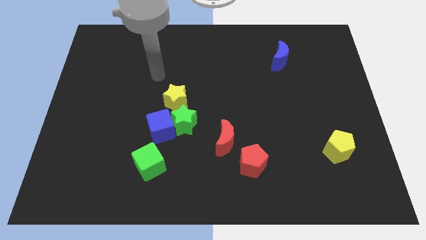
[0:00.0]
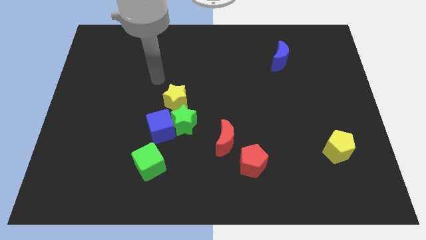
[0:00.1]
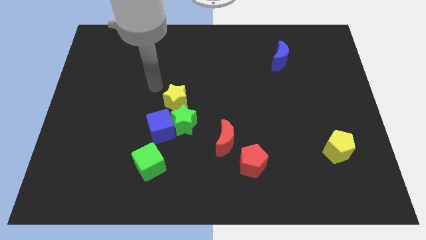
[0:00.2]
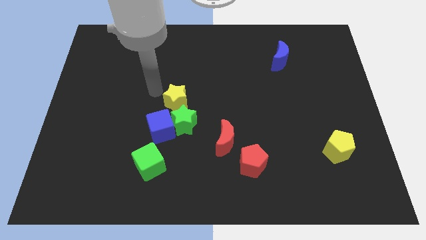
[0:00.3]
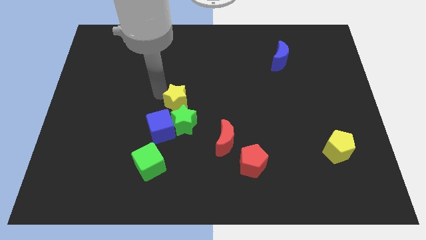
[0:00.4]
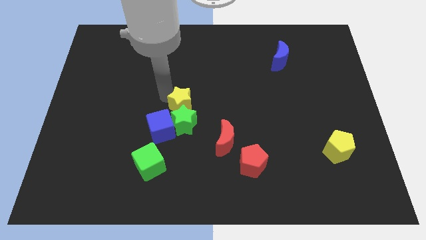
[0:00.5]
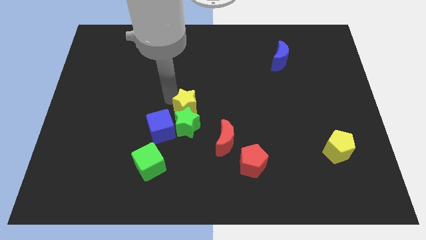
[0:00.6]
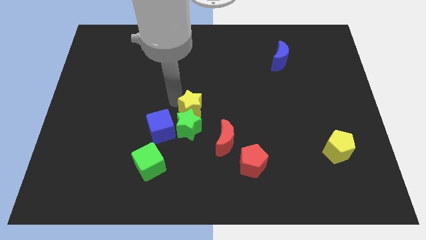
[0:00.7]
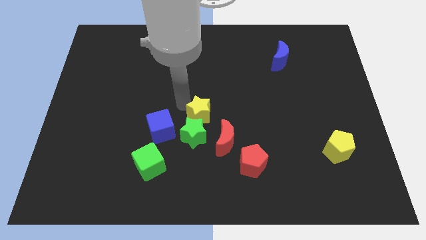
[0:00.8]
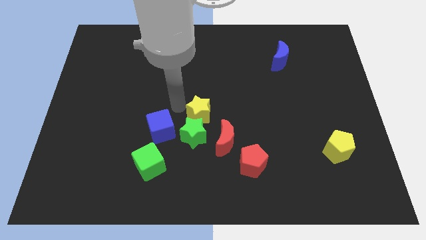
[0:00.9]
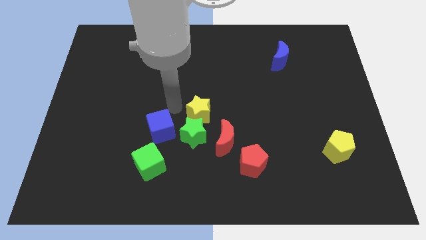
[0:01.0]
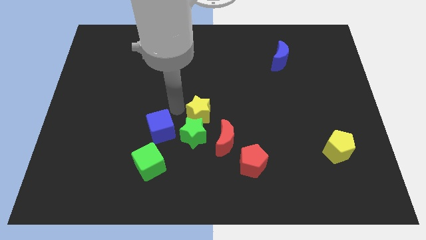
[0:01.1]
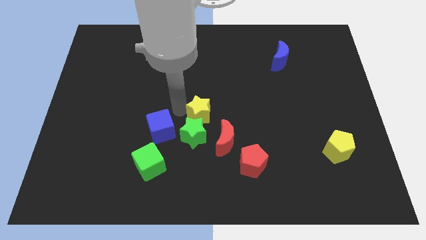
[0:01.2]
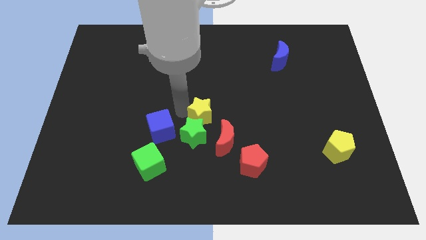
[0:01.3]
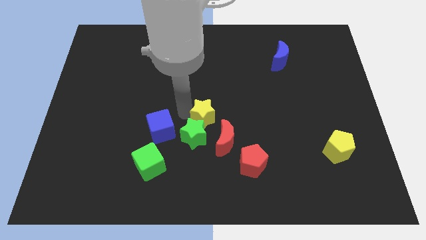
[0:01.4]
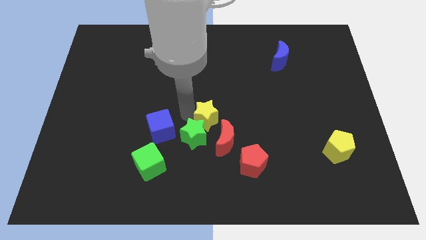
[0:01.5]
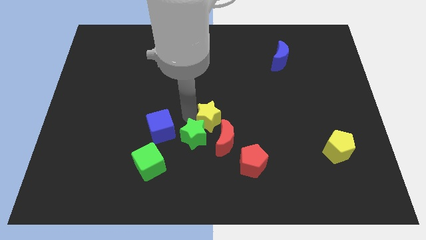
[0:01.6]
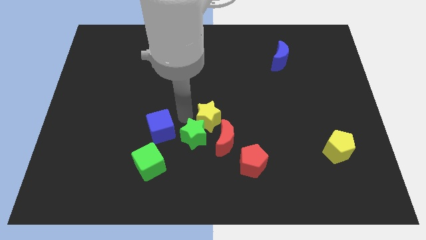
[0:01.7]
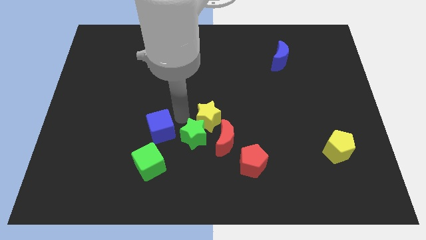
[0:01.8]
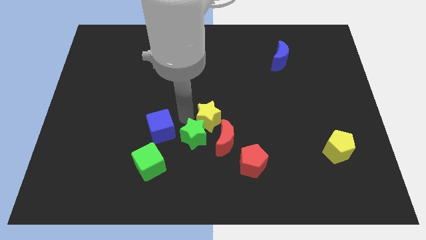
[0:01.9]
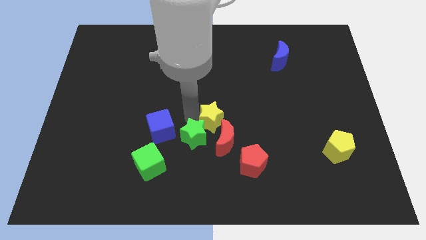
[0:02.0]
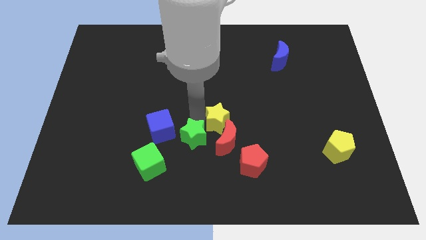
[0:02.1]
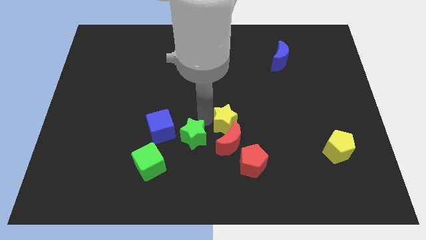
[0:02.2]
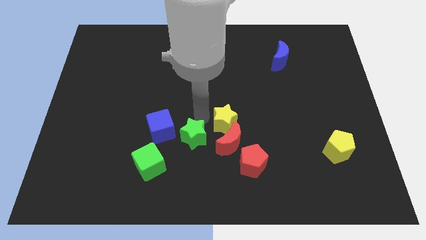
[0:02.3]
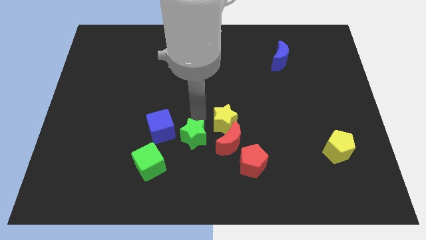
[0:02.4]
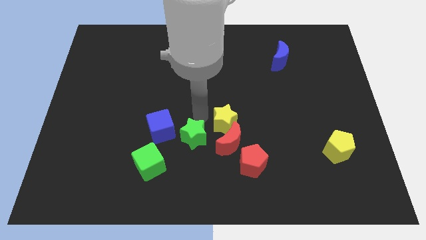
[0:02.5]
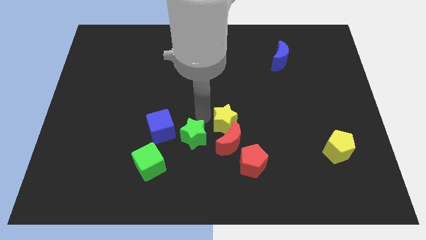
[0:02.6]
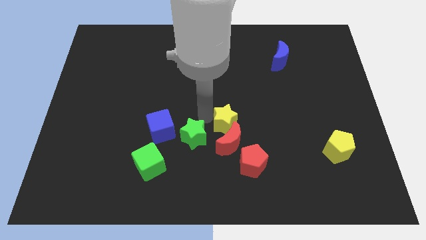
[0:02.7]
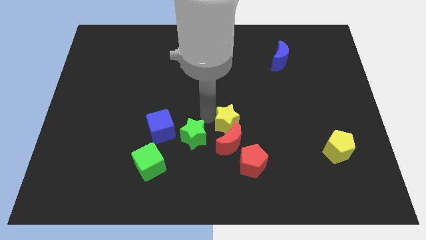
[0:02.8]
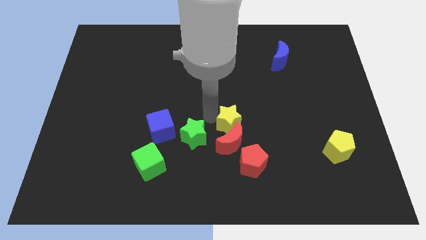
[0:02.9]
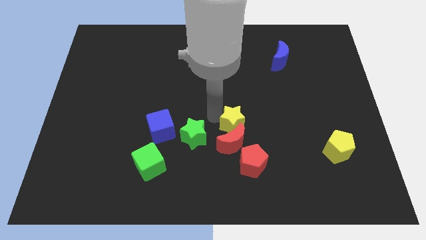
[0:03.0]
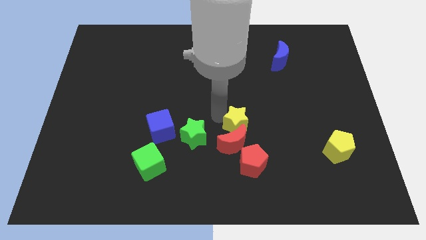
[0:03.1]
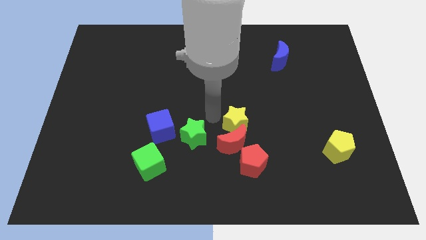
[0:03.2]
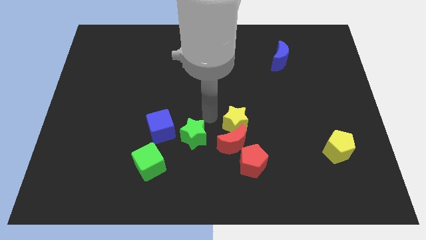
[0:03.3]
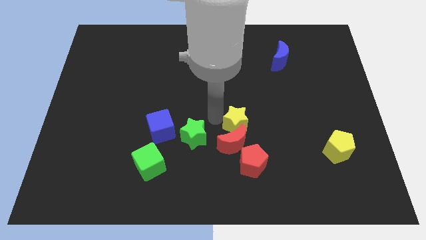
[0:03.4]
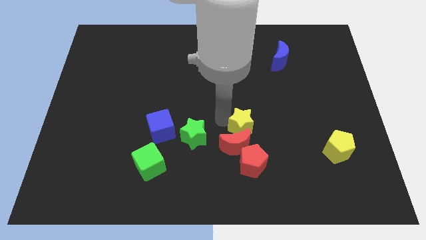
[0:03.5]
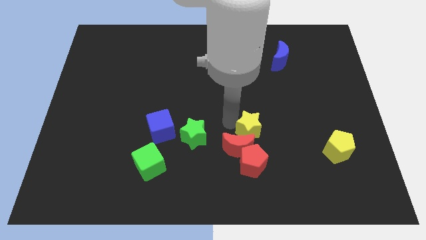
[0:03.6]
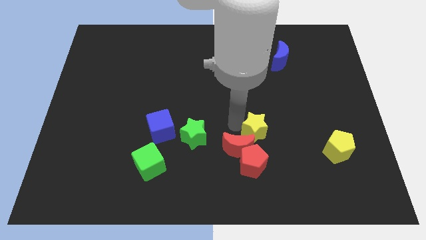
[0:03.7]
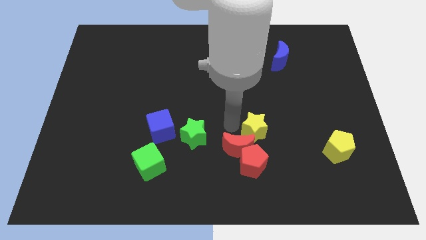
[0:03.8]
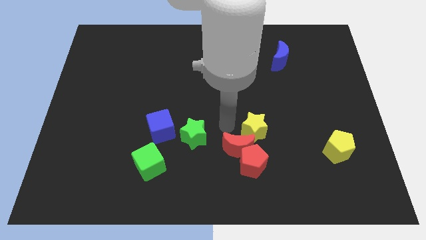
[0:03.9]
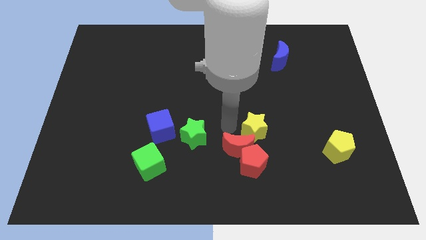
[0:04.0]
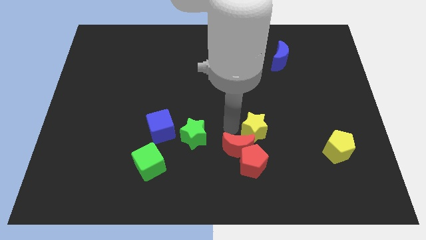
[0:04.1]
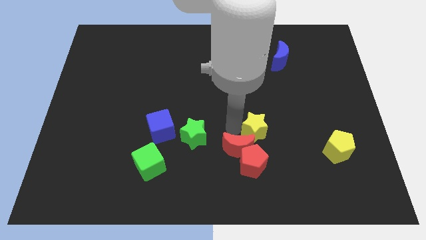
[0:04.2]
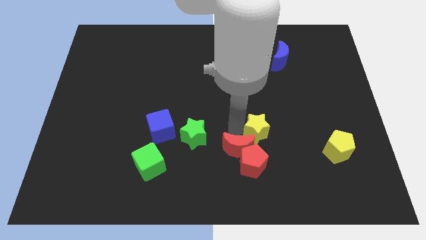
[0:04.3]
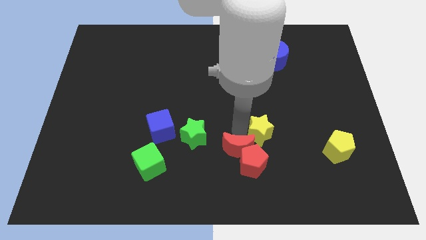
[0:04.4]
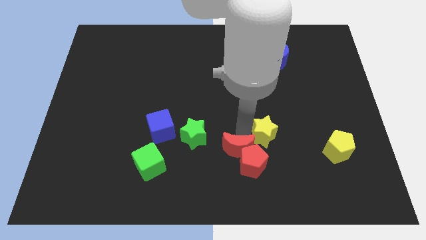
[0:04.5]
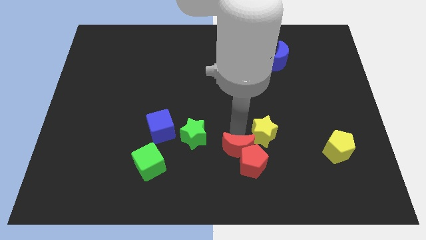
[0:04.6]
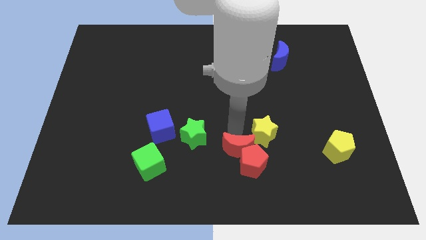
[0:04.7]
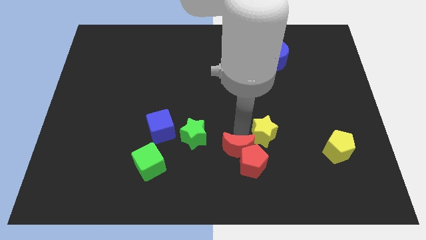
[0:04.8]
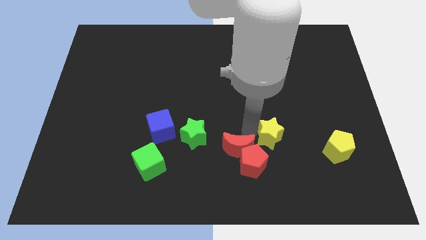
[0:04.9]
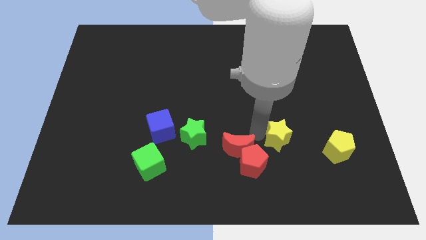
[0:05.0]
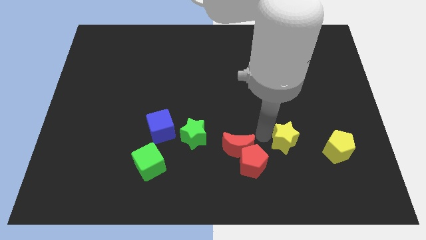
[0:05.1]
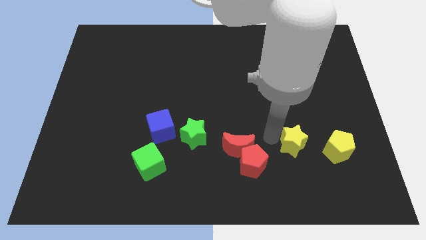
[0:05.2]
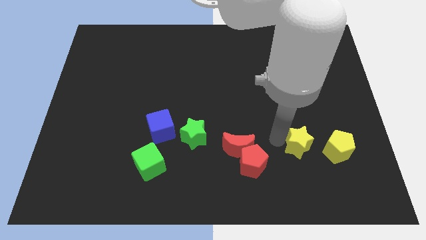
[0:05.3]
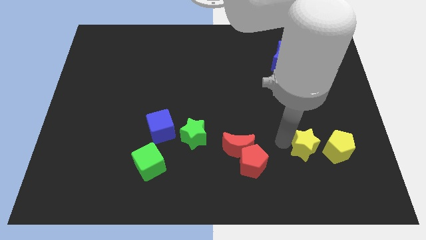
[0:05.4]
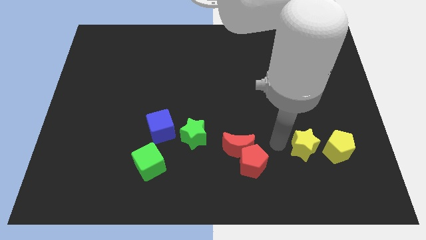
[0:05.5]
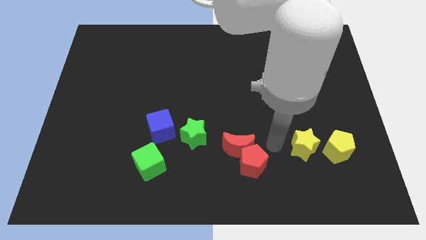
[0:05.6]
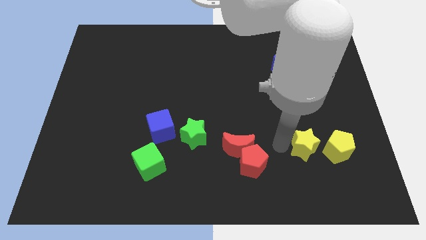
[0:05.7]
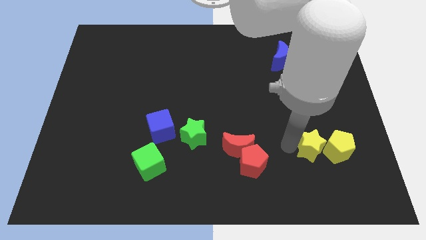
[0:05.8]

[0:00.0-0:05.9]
push the yellow star close to the yellow pentagon

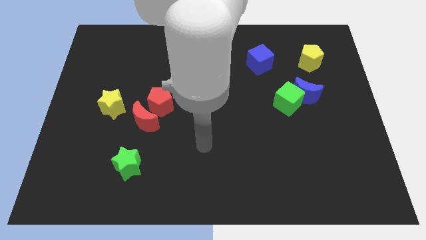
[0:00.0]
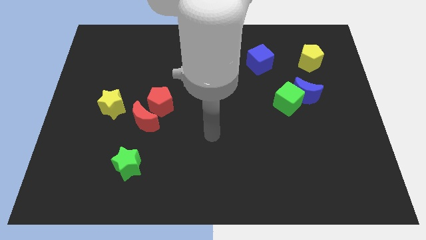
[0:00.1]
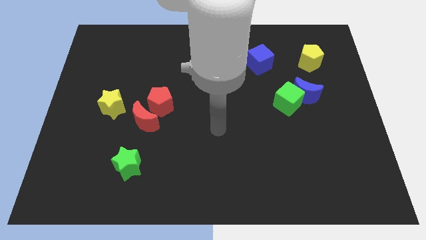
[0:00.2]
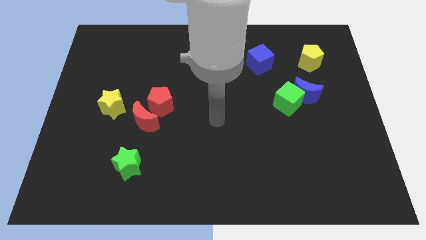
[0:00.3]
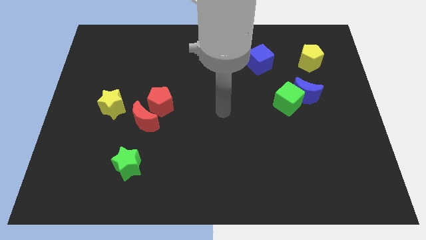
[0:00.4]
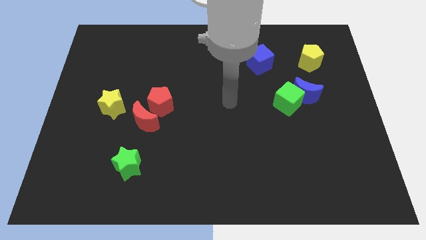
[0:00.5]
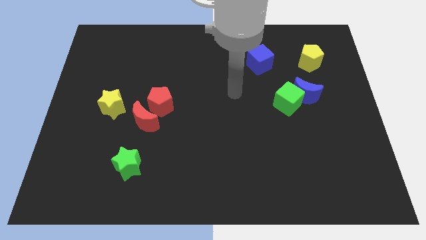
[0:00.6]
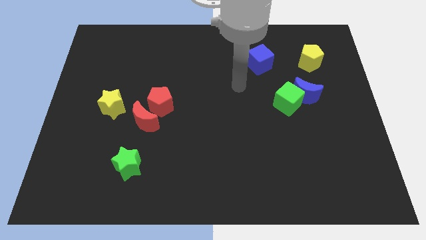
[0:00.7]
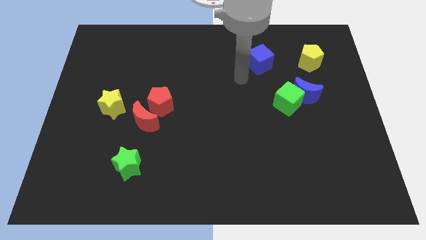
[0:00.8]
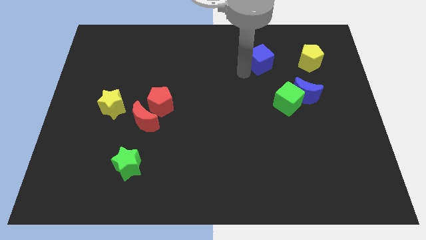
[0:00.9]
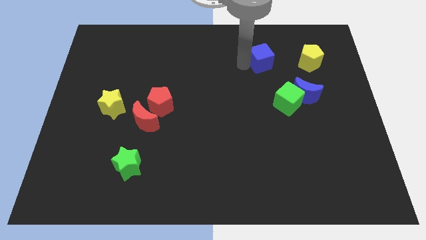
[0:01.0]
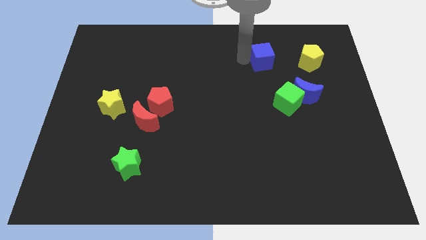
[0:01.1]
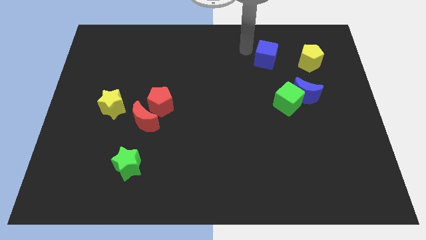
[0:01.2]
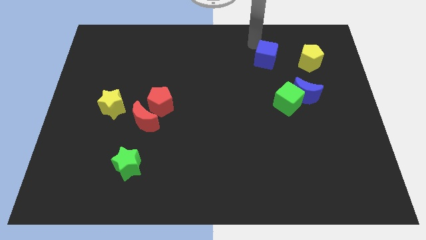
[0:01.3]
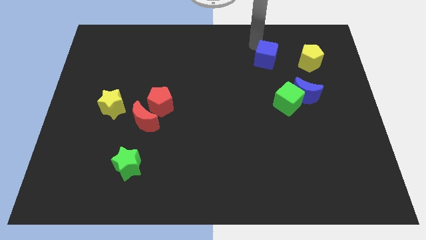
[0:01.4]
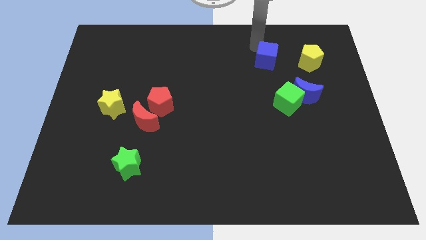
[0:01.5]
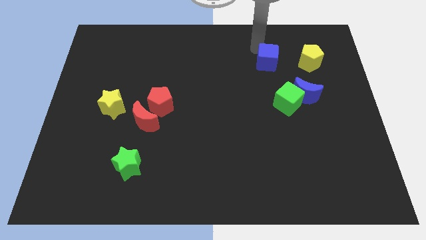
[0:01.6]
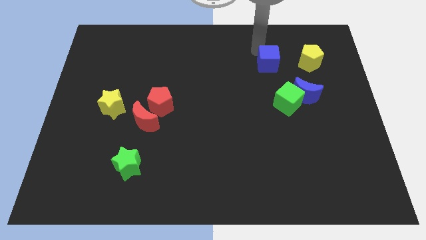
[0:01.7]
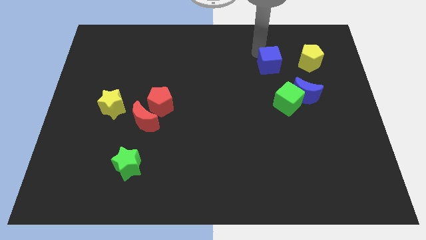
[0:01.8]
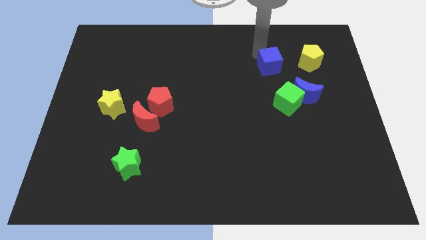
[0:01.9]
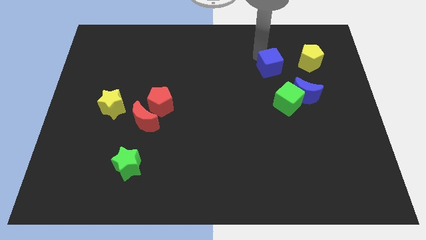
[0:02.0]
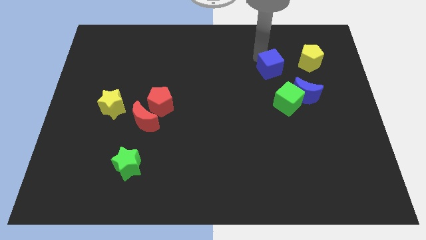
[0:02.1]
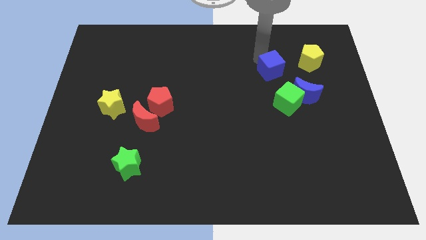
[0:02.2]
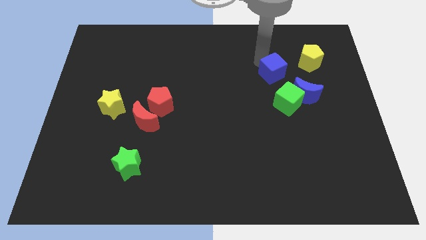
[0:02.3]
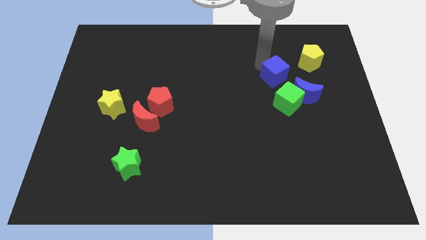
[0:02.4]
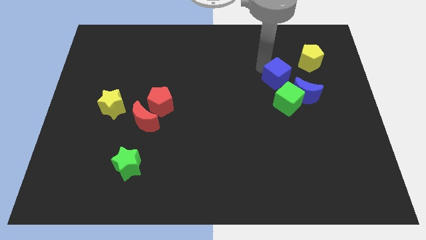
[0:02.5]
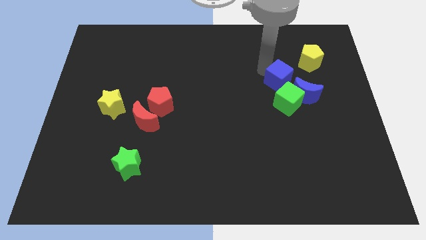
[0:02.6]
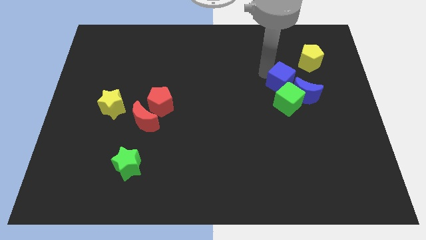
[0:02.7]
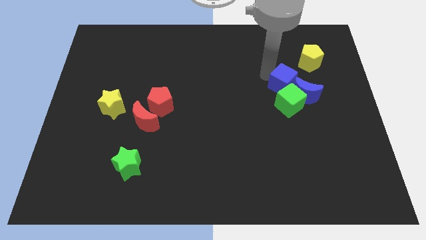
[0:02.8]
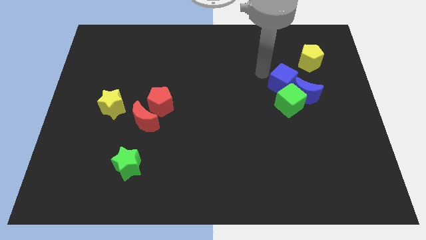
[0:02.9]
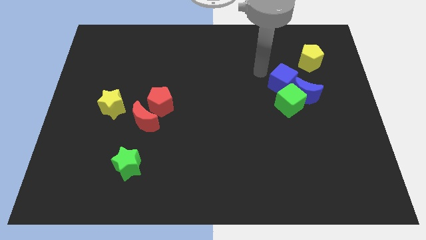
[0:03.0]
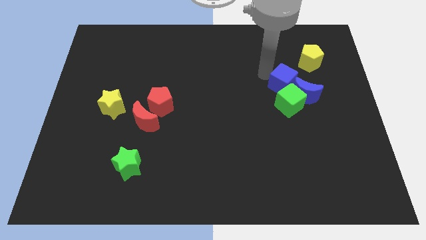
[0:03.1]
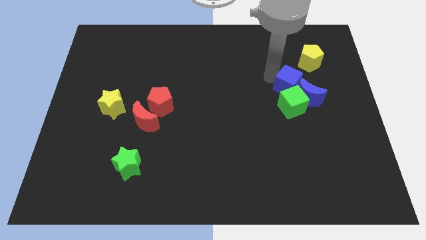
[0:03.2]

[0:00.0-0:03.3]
slide the blue cube next to the blue moon
